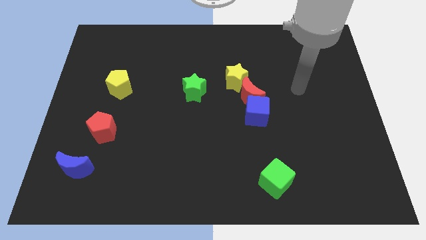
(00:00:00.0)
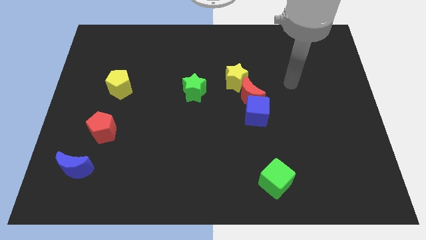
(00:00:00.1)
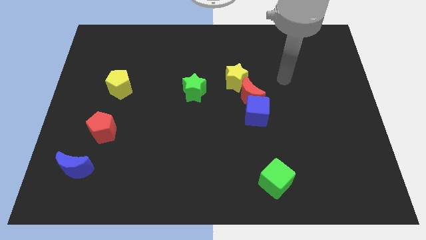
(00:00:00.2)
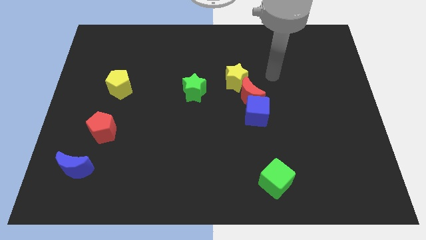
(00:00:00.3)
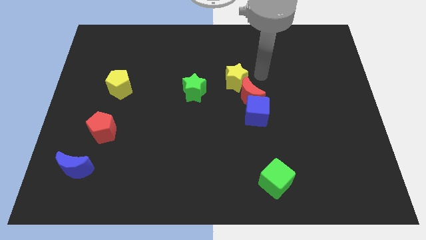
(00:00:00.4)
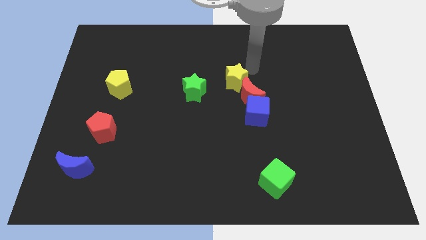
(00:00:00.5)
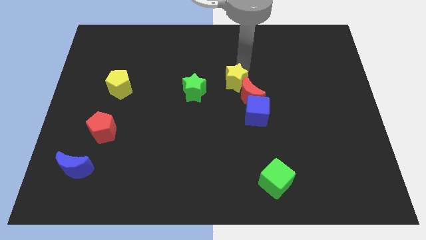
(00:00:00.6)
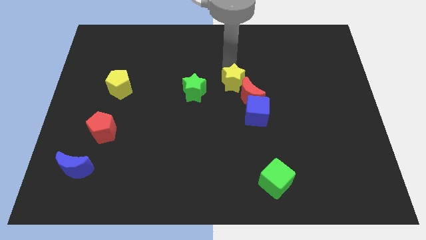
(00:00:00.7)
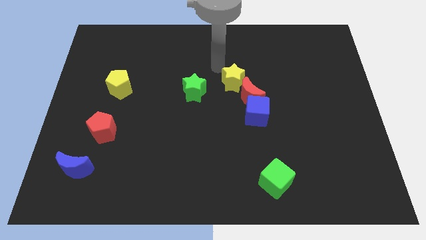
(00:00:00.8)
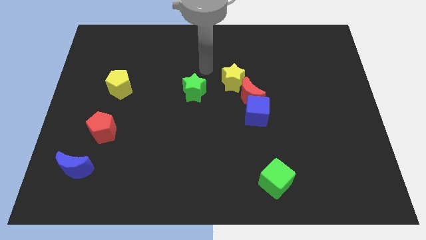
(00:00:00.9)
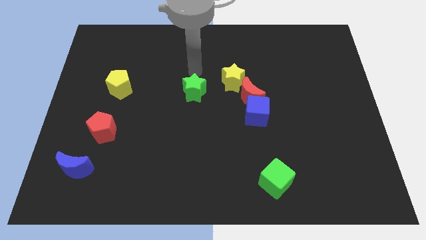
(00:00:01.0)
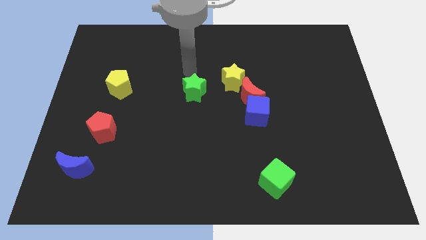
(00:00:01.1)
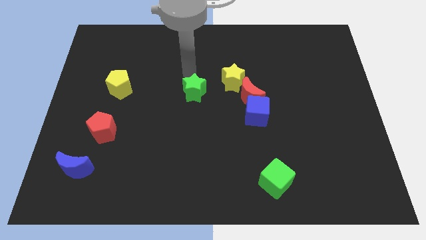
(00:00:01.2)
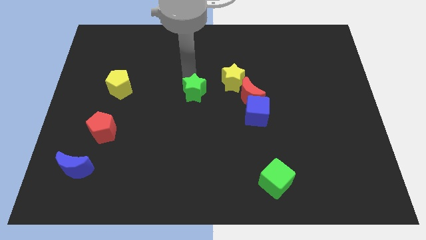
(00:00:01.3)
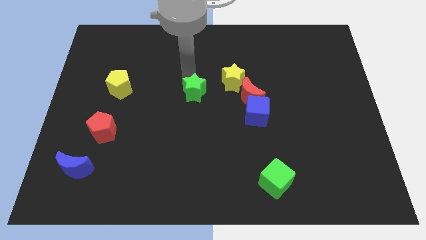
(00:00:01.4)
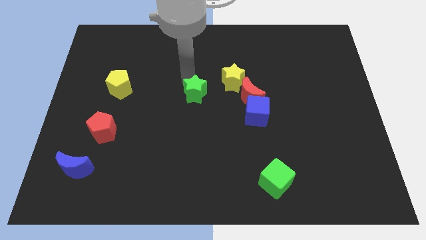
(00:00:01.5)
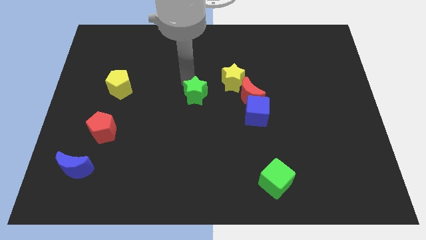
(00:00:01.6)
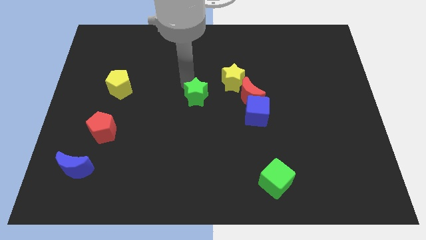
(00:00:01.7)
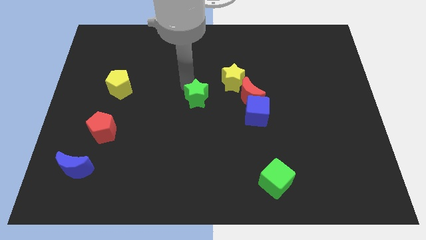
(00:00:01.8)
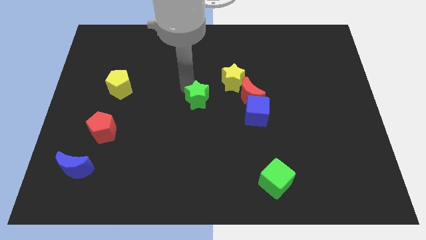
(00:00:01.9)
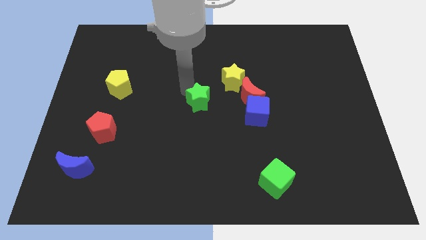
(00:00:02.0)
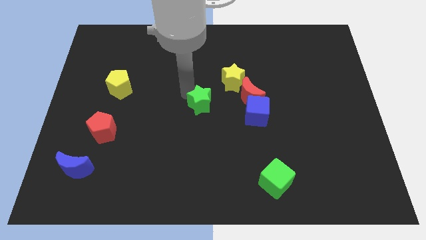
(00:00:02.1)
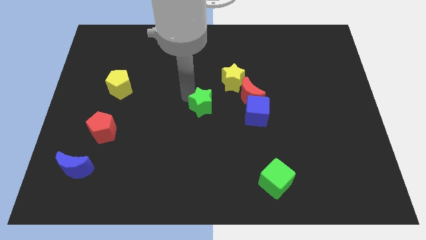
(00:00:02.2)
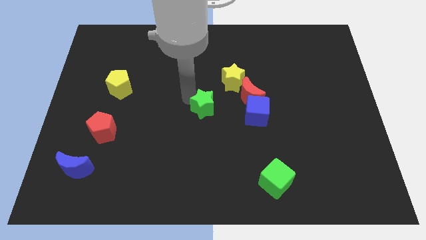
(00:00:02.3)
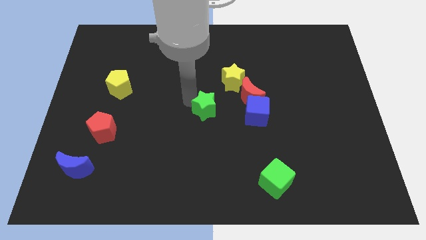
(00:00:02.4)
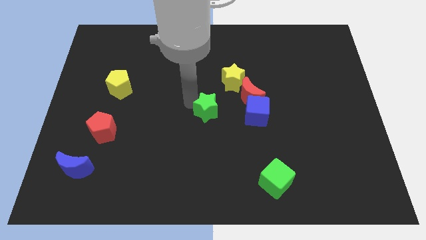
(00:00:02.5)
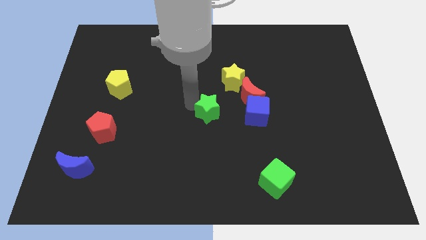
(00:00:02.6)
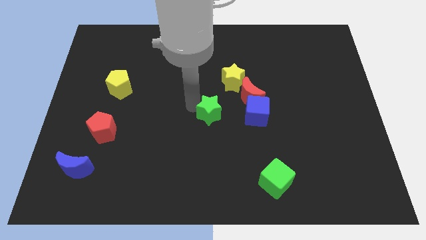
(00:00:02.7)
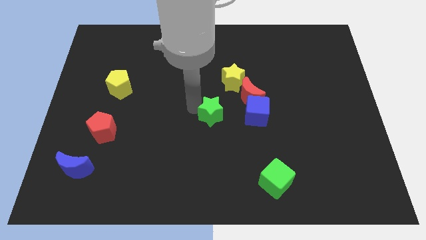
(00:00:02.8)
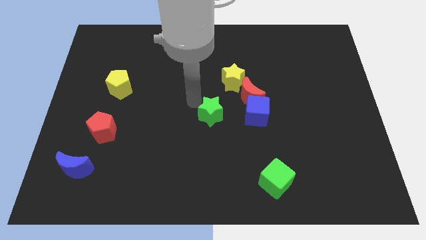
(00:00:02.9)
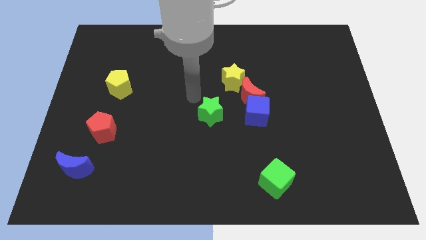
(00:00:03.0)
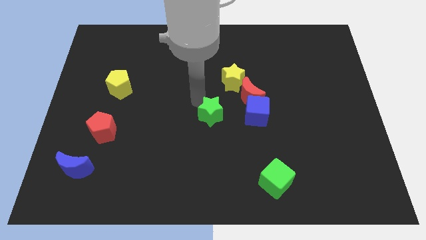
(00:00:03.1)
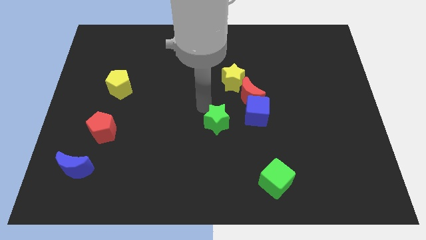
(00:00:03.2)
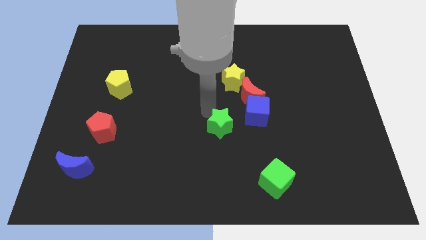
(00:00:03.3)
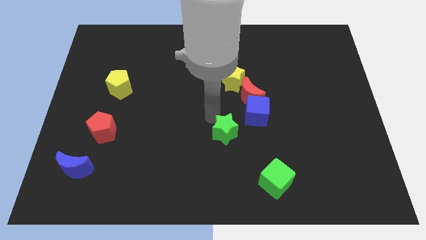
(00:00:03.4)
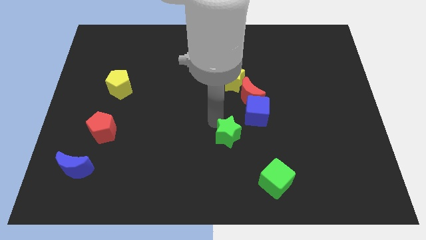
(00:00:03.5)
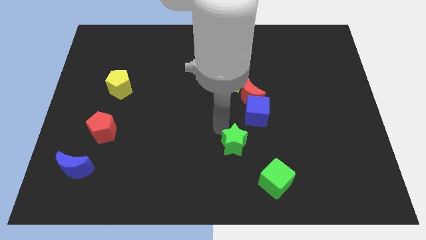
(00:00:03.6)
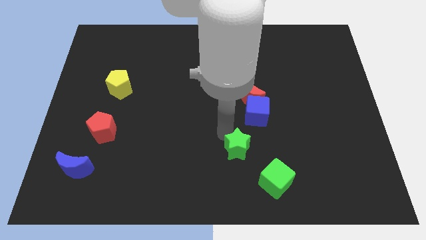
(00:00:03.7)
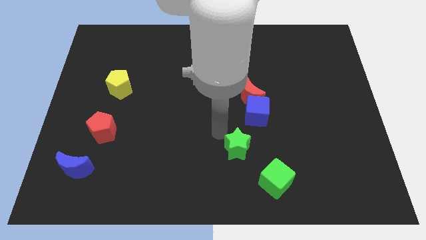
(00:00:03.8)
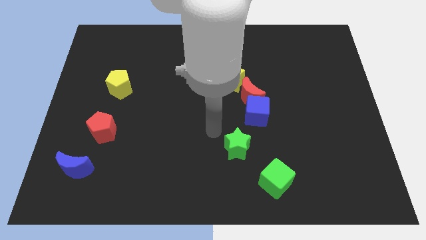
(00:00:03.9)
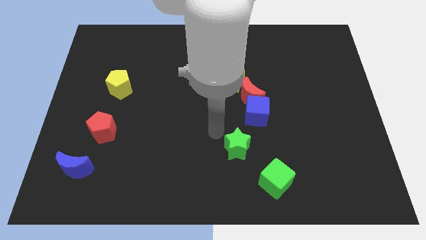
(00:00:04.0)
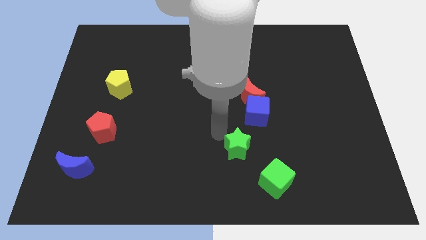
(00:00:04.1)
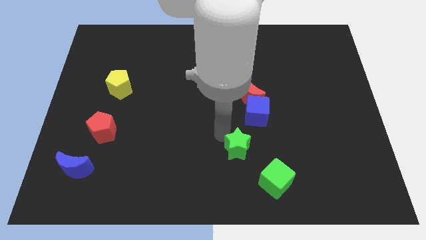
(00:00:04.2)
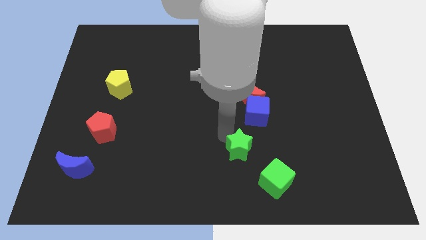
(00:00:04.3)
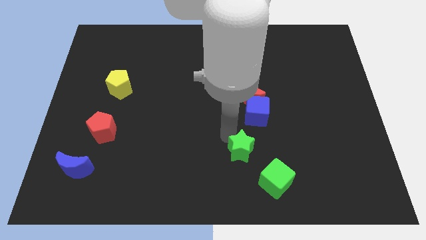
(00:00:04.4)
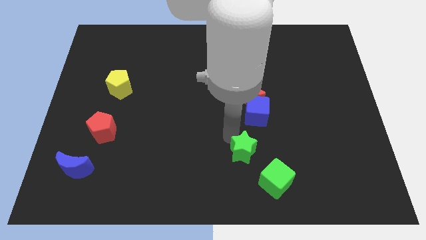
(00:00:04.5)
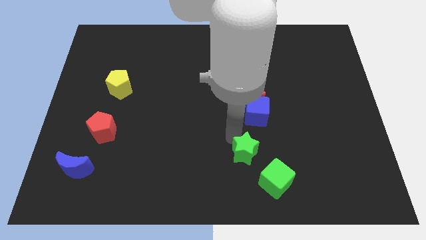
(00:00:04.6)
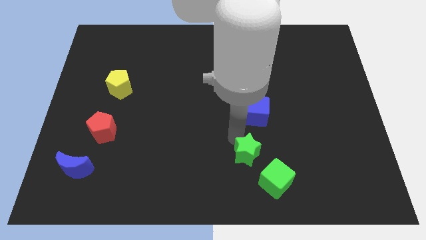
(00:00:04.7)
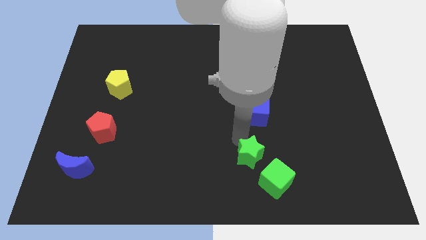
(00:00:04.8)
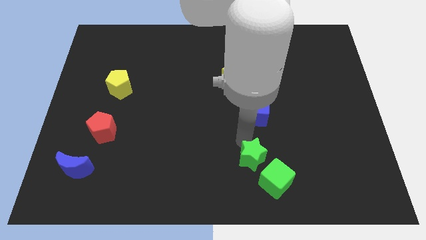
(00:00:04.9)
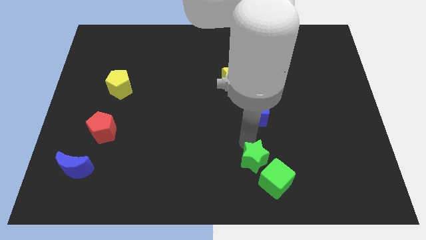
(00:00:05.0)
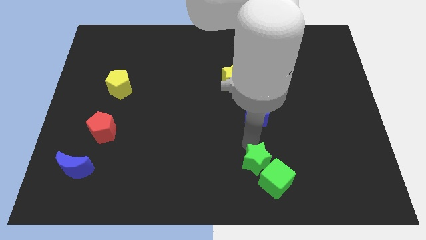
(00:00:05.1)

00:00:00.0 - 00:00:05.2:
push the green star close to the green cube

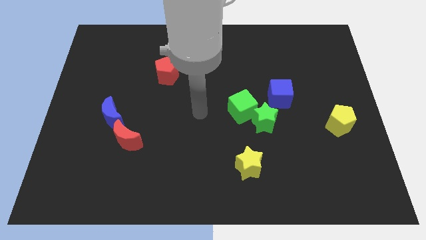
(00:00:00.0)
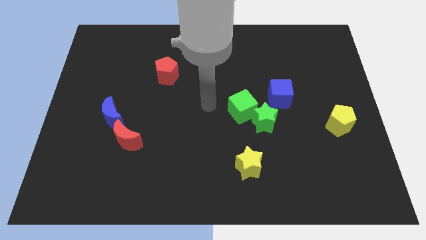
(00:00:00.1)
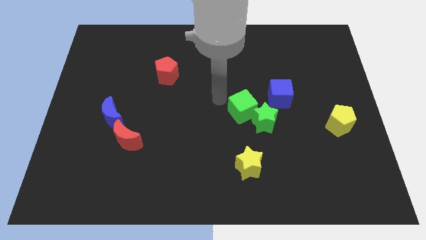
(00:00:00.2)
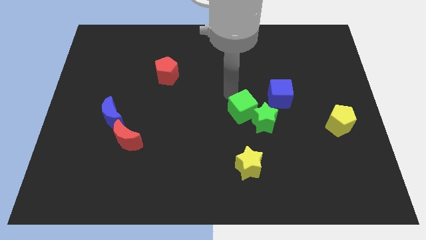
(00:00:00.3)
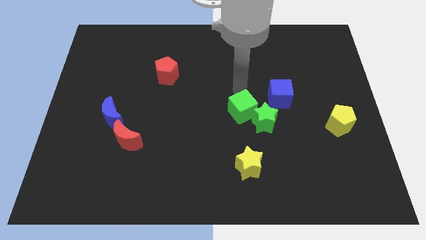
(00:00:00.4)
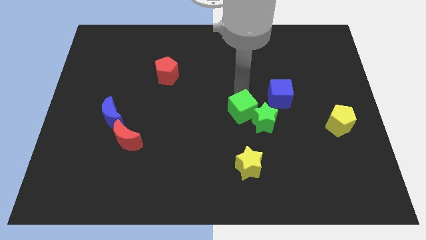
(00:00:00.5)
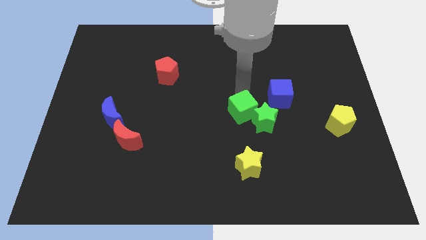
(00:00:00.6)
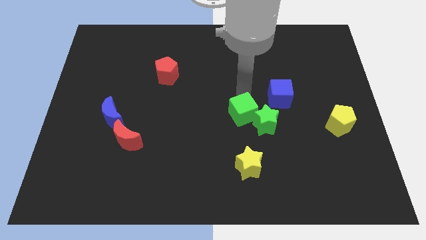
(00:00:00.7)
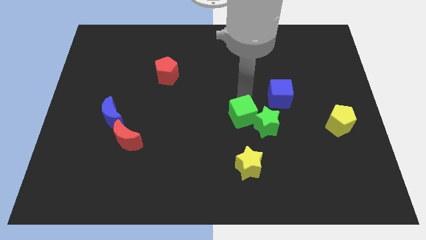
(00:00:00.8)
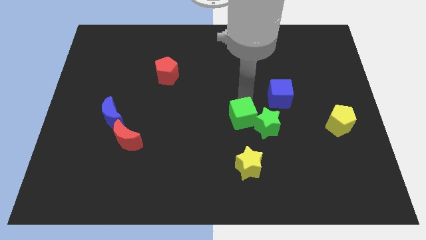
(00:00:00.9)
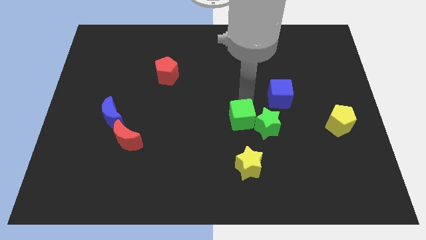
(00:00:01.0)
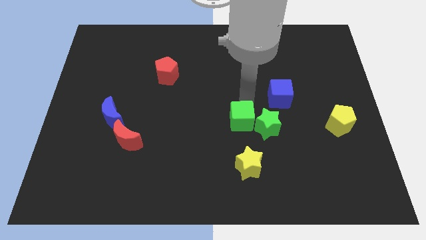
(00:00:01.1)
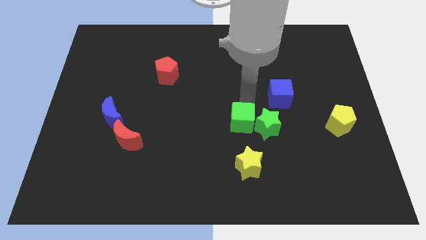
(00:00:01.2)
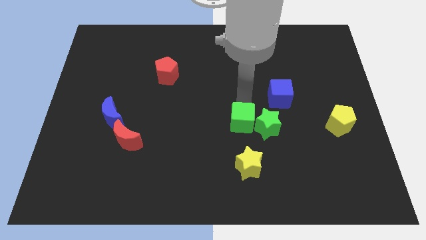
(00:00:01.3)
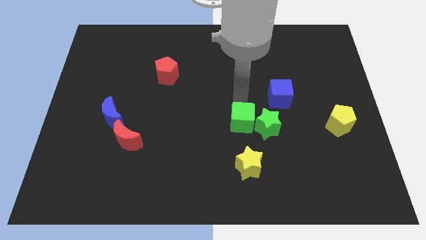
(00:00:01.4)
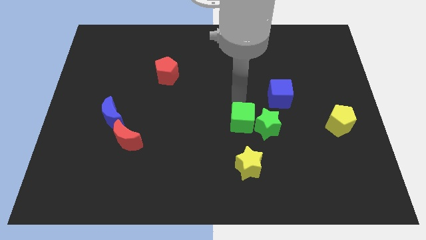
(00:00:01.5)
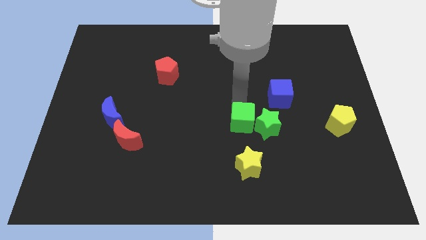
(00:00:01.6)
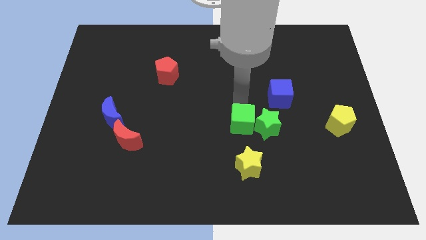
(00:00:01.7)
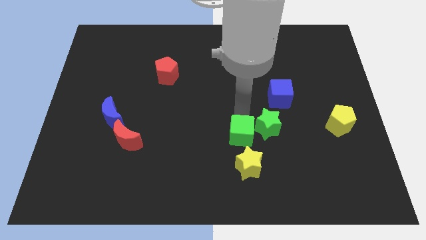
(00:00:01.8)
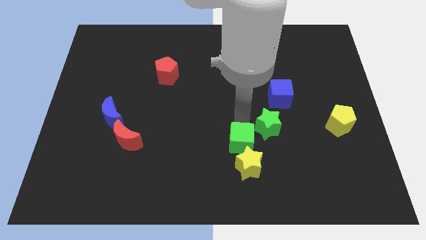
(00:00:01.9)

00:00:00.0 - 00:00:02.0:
put the green cube towards the yellow star

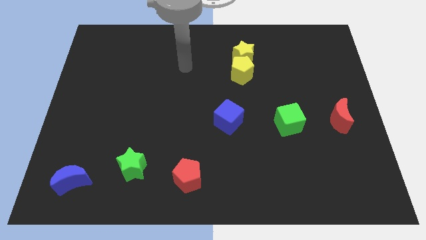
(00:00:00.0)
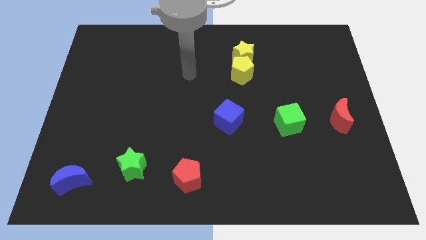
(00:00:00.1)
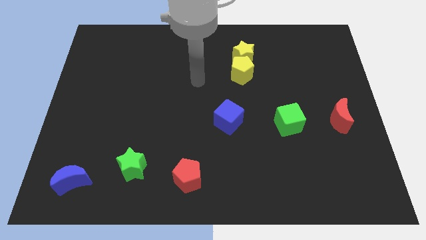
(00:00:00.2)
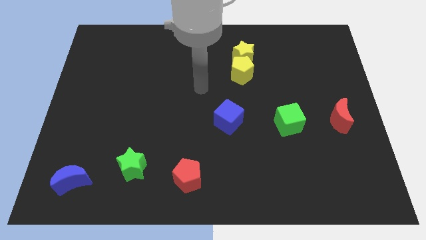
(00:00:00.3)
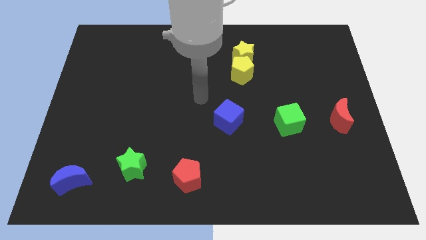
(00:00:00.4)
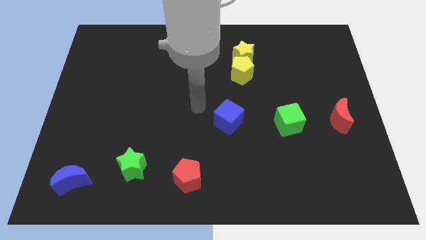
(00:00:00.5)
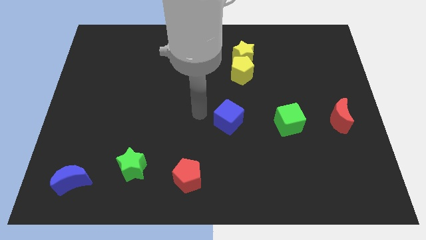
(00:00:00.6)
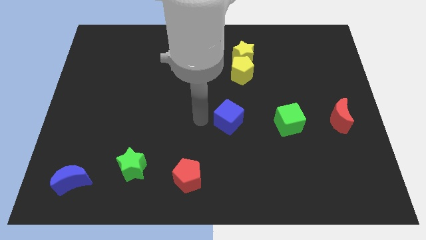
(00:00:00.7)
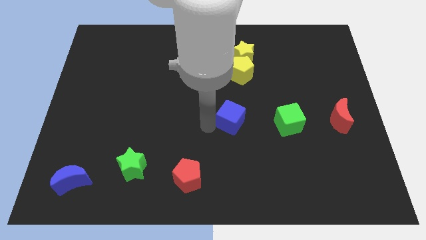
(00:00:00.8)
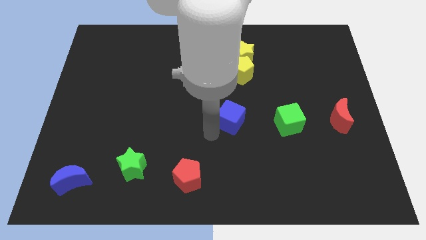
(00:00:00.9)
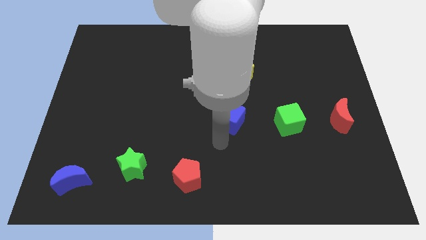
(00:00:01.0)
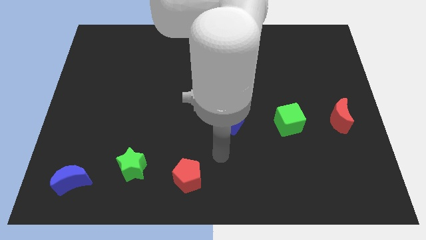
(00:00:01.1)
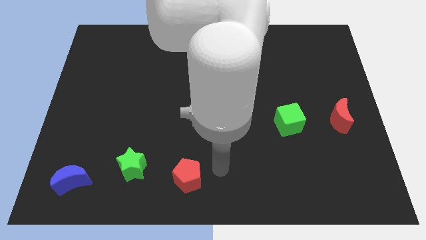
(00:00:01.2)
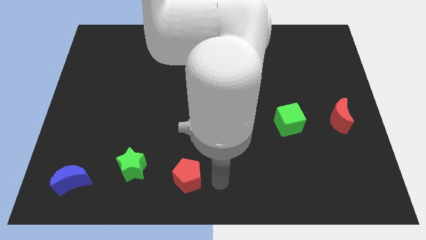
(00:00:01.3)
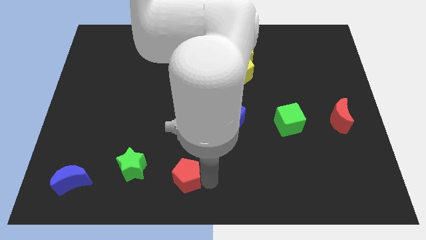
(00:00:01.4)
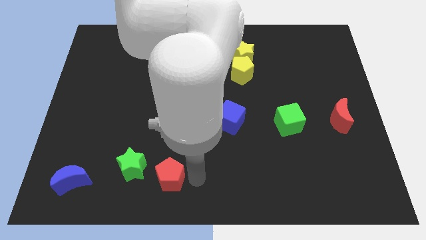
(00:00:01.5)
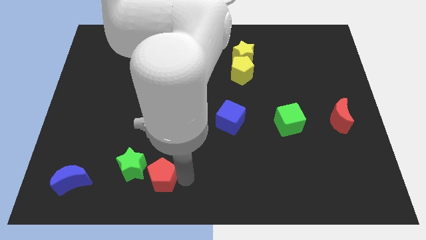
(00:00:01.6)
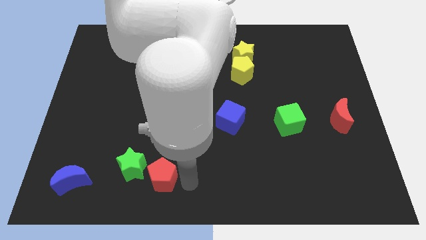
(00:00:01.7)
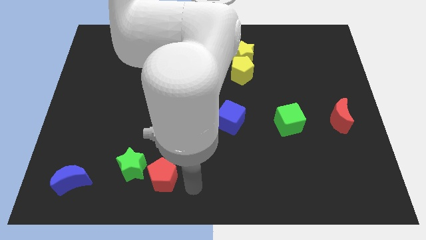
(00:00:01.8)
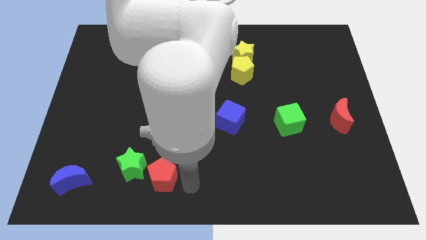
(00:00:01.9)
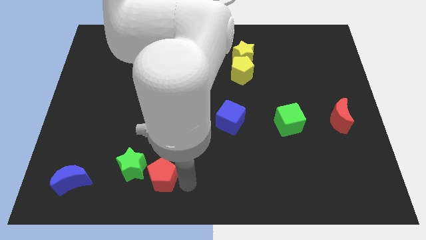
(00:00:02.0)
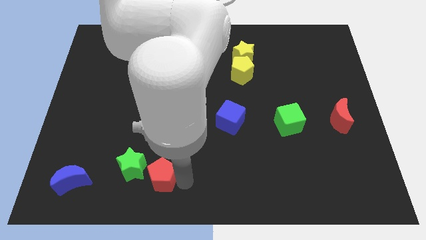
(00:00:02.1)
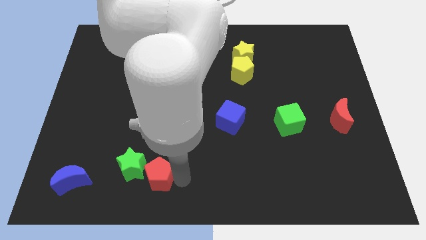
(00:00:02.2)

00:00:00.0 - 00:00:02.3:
slide the red pentagon towards the green star
